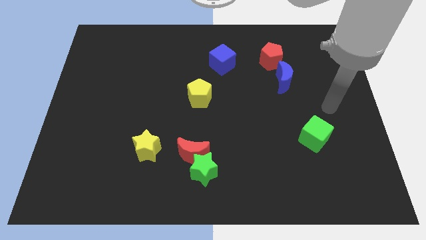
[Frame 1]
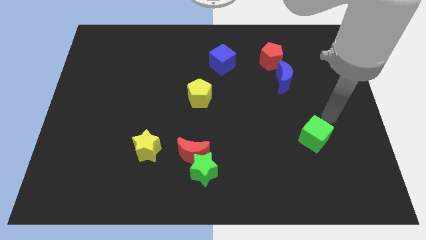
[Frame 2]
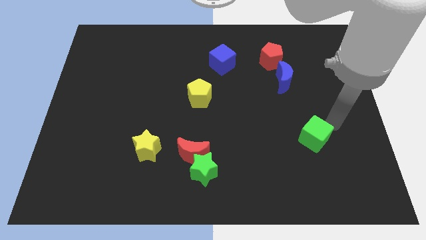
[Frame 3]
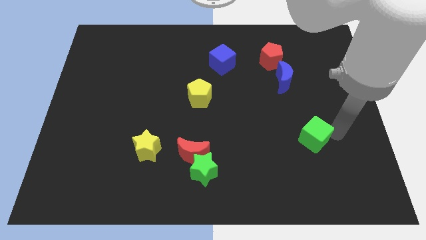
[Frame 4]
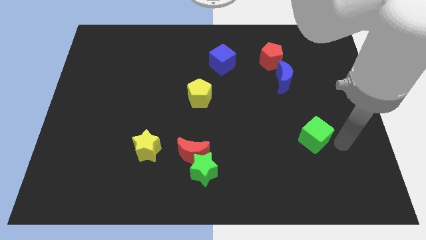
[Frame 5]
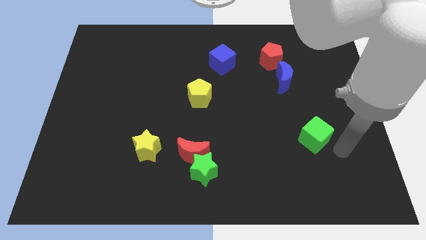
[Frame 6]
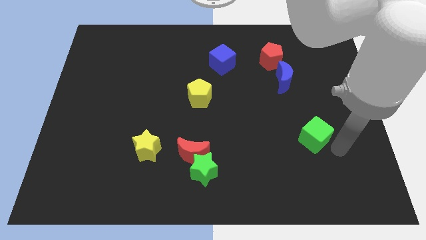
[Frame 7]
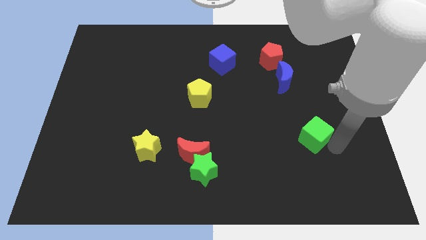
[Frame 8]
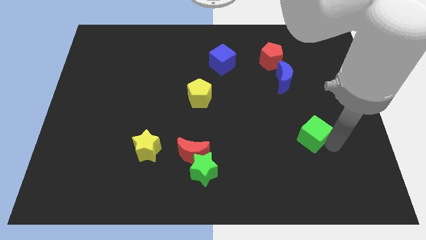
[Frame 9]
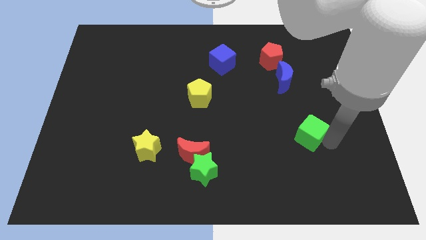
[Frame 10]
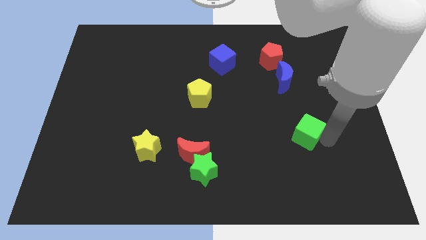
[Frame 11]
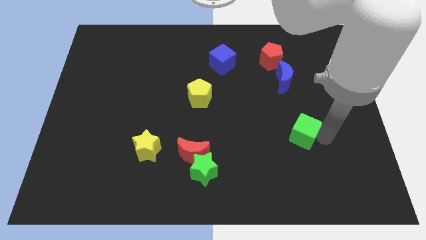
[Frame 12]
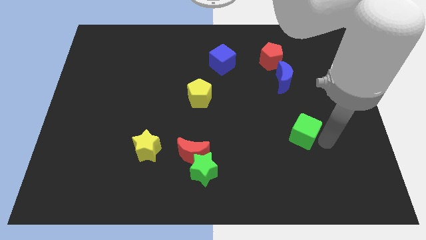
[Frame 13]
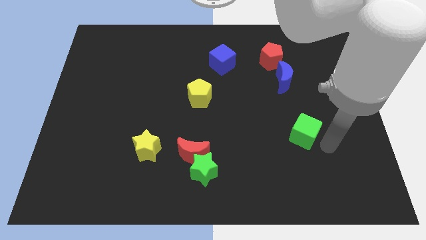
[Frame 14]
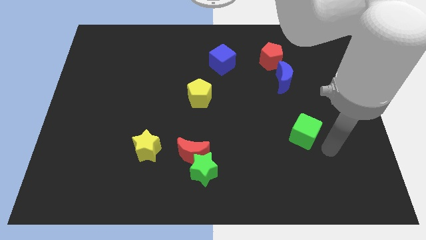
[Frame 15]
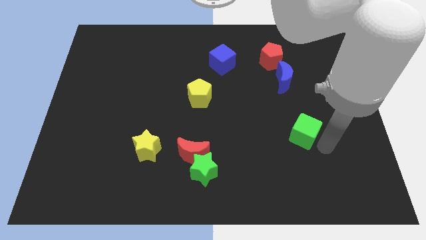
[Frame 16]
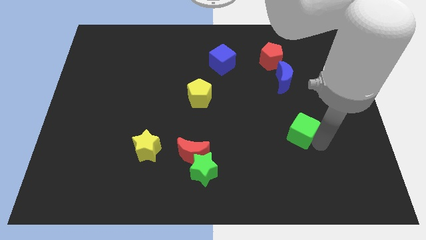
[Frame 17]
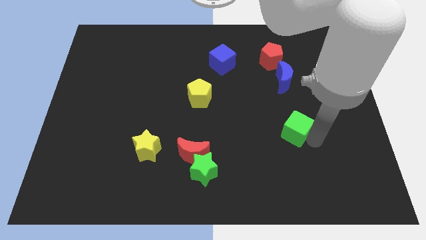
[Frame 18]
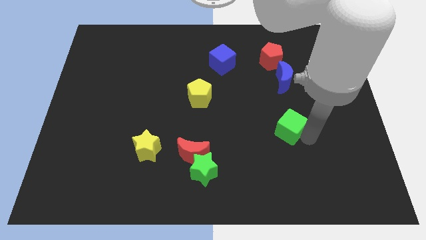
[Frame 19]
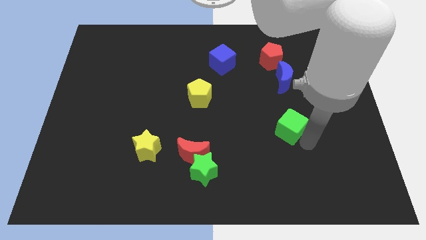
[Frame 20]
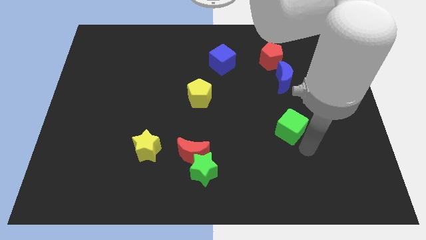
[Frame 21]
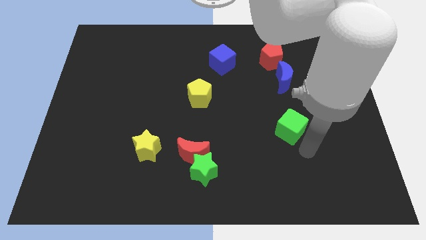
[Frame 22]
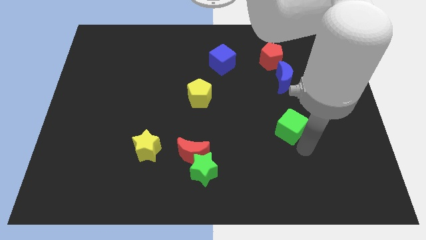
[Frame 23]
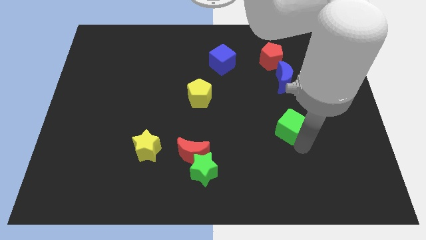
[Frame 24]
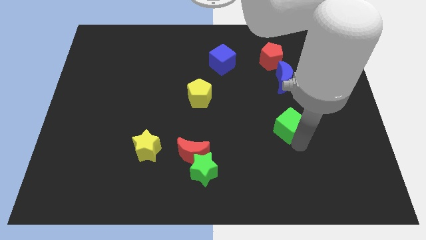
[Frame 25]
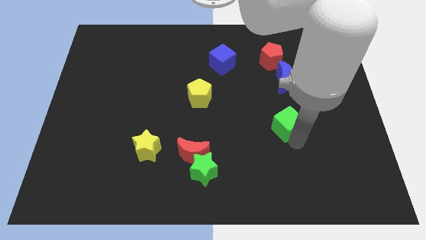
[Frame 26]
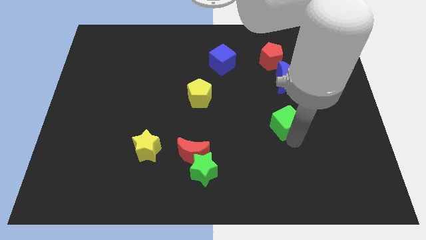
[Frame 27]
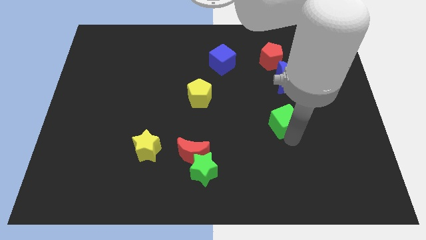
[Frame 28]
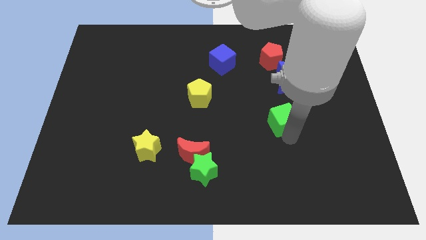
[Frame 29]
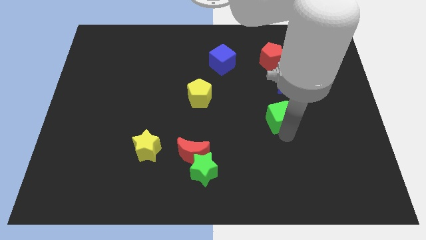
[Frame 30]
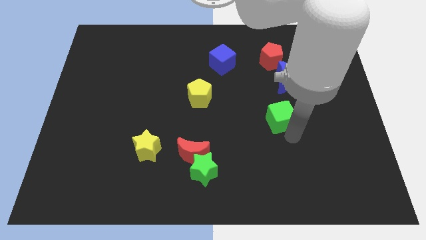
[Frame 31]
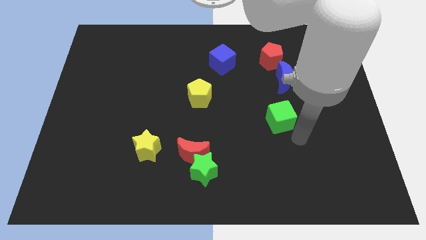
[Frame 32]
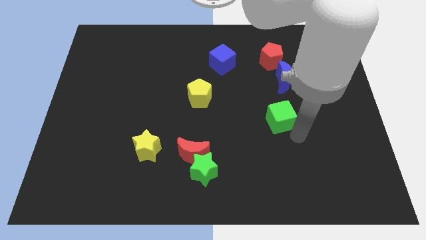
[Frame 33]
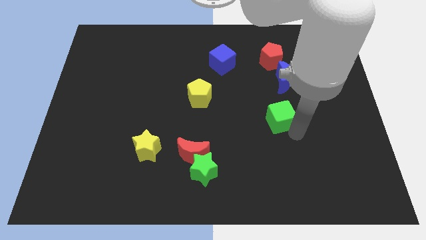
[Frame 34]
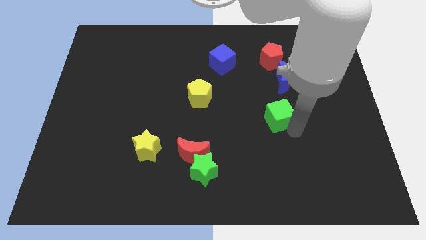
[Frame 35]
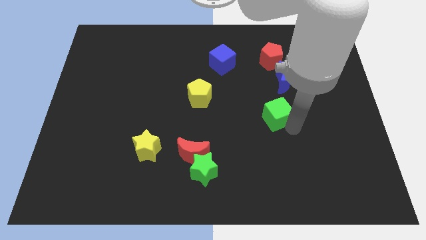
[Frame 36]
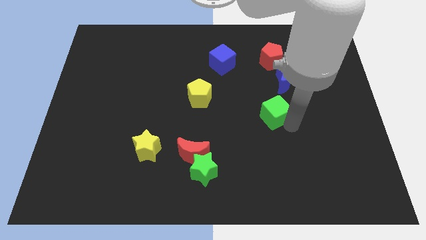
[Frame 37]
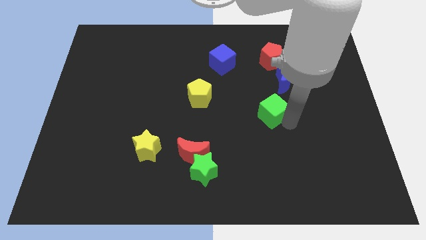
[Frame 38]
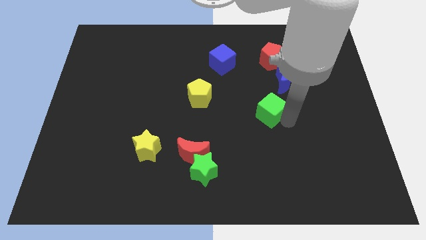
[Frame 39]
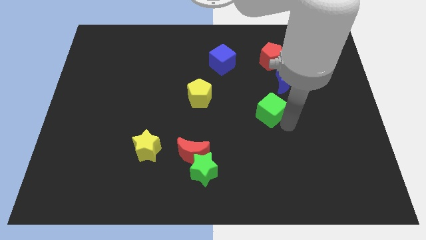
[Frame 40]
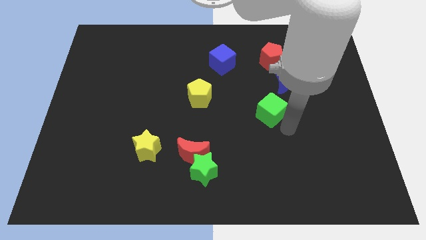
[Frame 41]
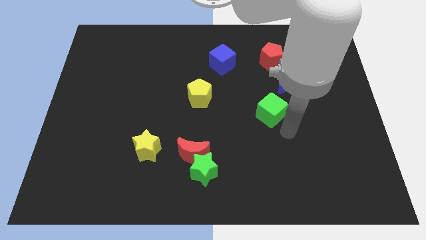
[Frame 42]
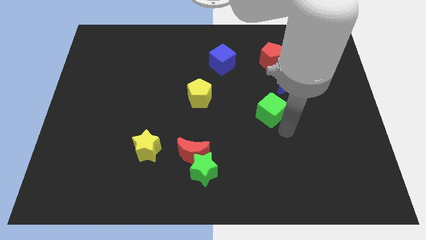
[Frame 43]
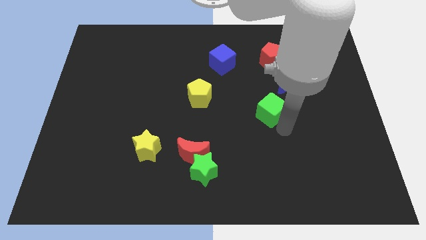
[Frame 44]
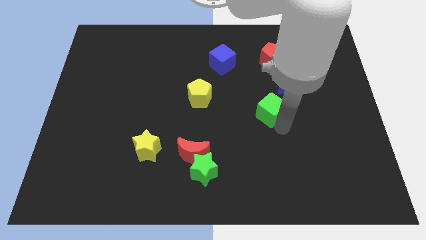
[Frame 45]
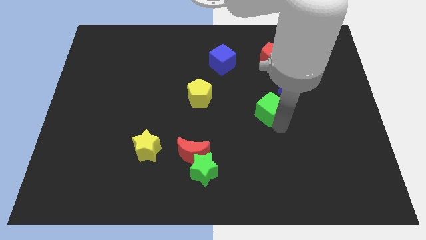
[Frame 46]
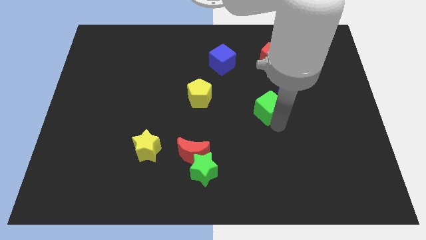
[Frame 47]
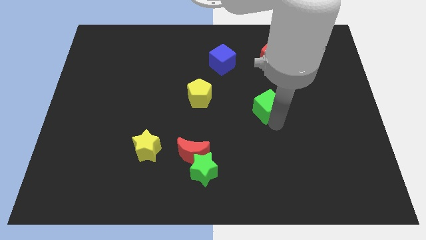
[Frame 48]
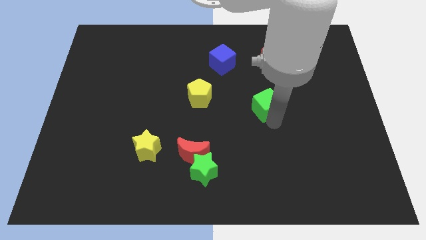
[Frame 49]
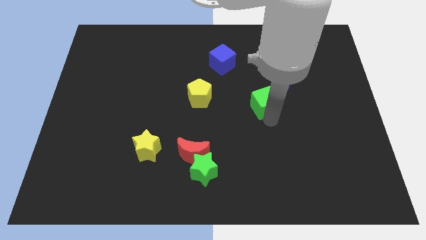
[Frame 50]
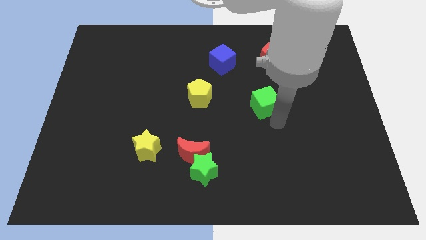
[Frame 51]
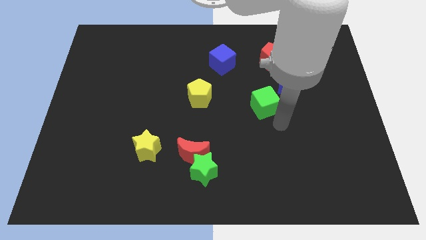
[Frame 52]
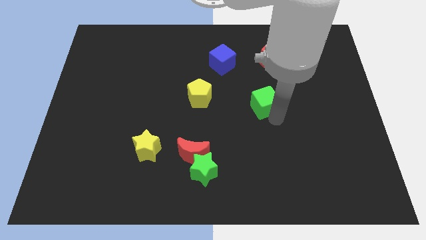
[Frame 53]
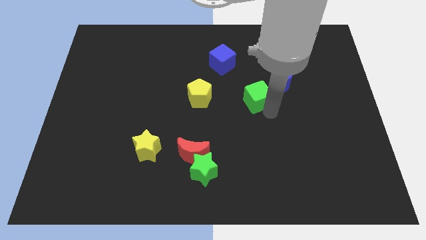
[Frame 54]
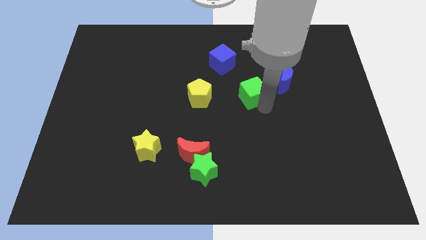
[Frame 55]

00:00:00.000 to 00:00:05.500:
push the green cube to the left side of the blue moon

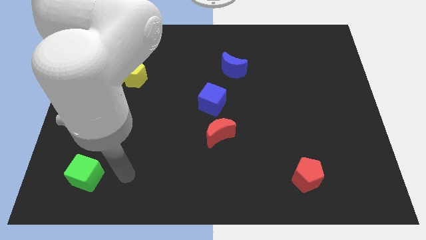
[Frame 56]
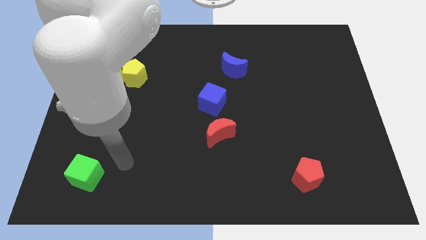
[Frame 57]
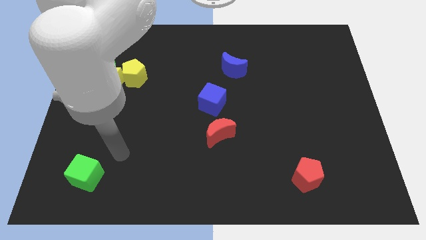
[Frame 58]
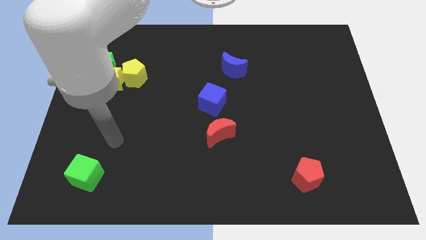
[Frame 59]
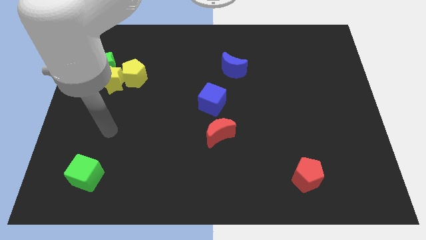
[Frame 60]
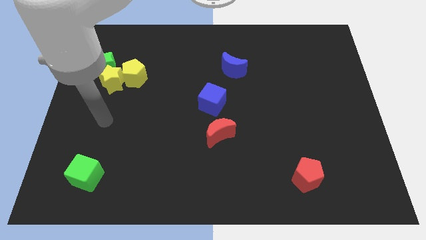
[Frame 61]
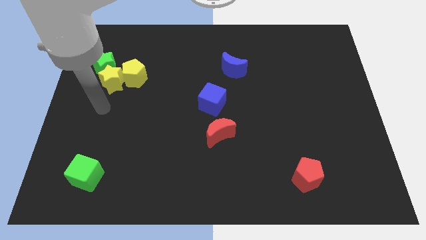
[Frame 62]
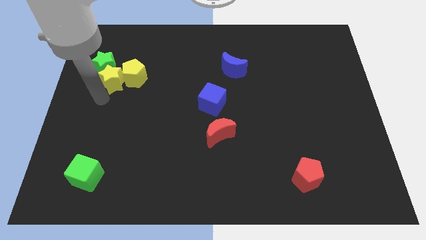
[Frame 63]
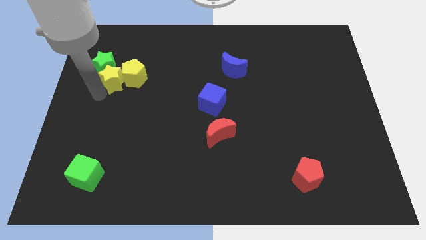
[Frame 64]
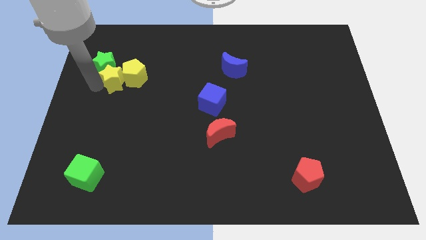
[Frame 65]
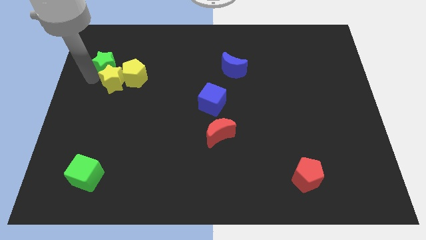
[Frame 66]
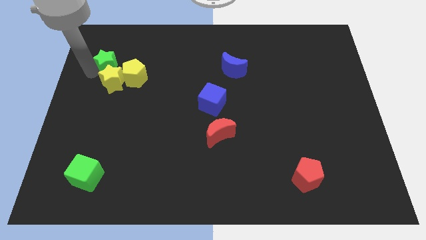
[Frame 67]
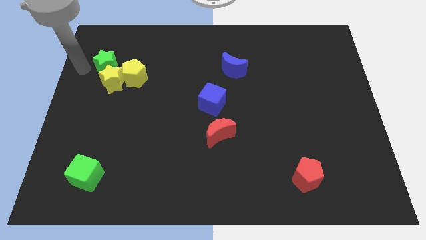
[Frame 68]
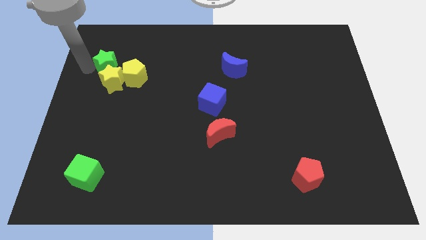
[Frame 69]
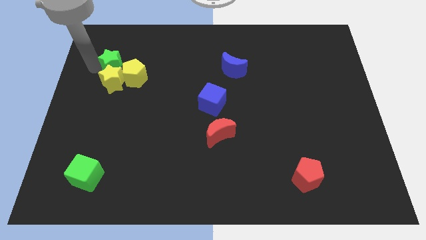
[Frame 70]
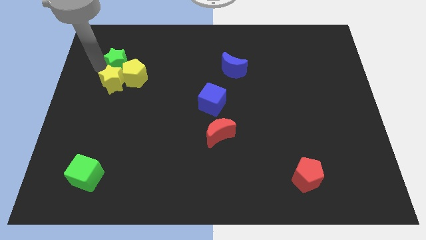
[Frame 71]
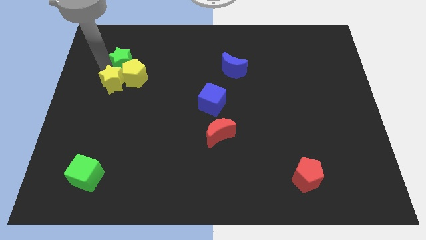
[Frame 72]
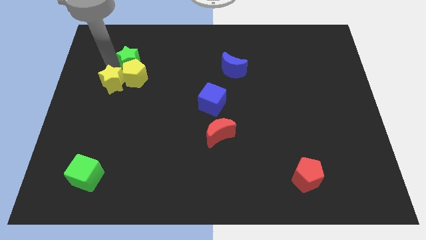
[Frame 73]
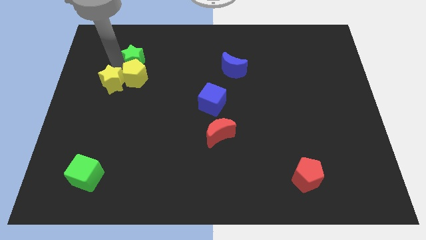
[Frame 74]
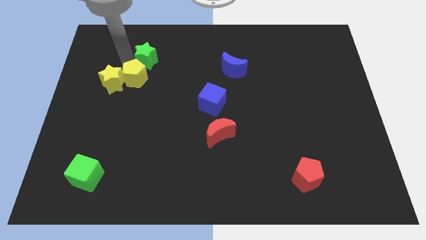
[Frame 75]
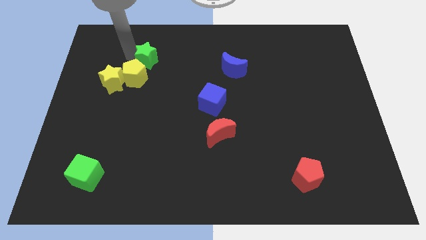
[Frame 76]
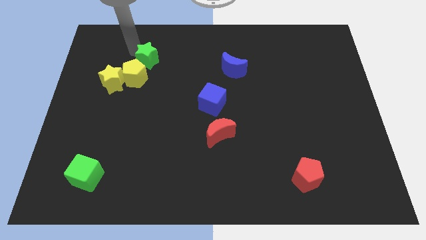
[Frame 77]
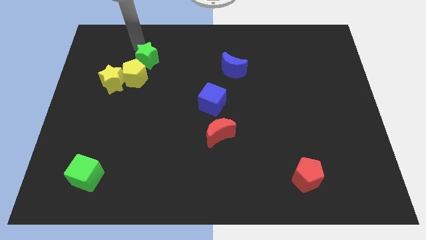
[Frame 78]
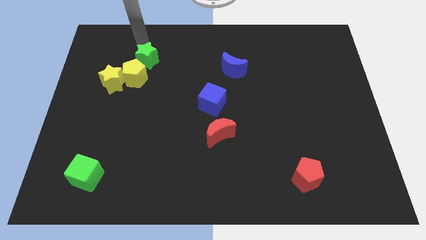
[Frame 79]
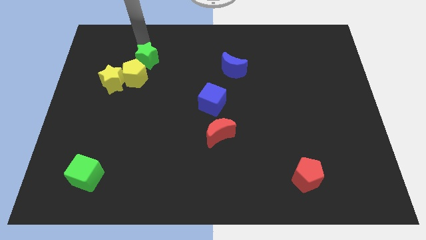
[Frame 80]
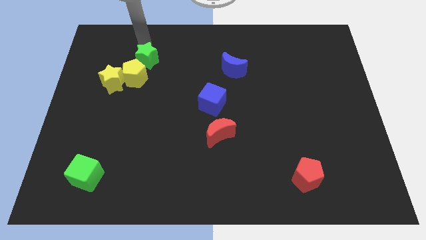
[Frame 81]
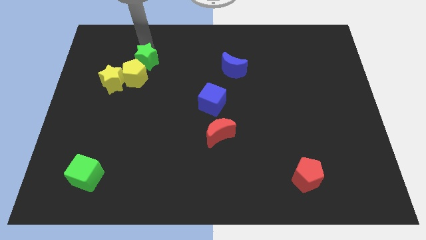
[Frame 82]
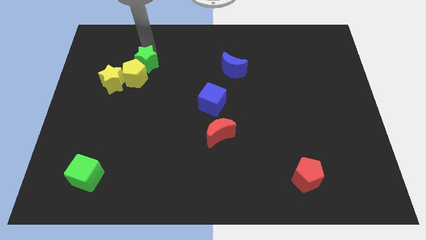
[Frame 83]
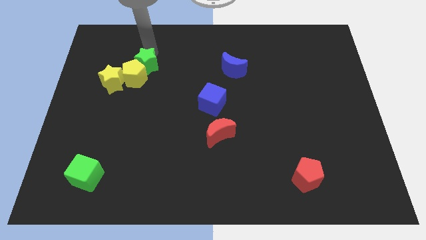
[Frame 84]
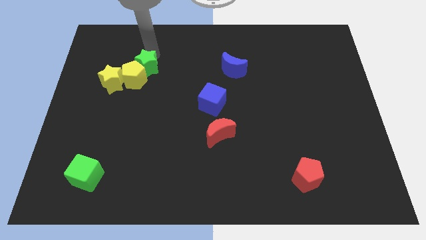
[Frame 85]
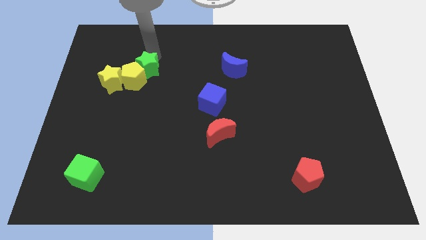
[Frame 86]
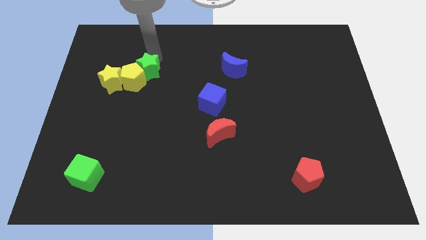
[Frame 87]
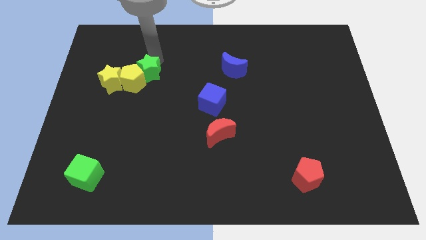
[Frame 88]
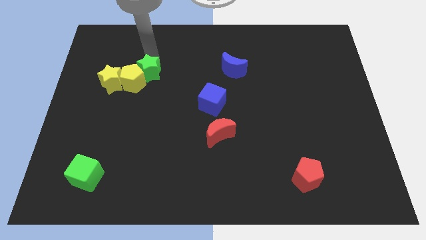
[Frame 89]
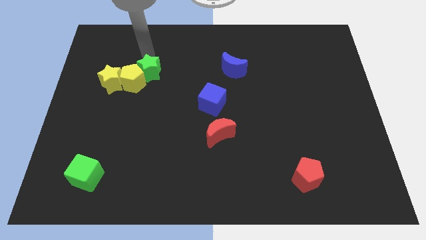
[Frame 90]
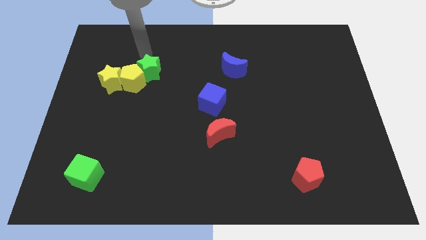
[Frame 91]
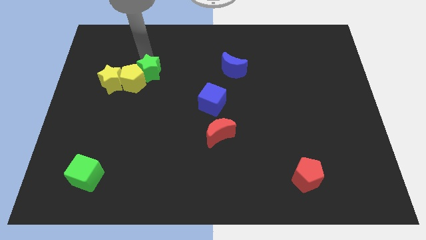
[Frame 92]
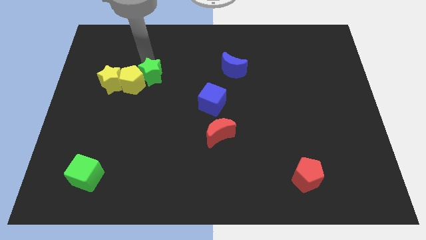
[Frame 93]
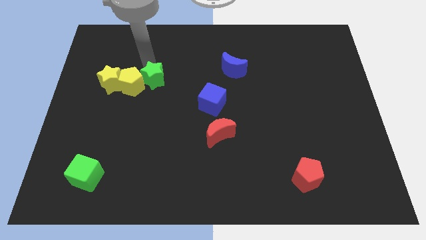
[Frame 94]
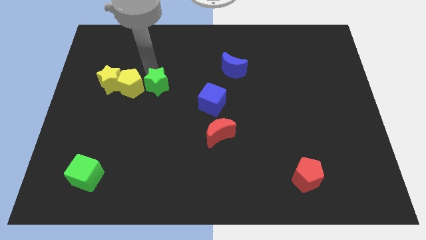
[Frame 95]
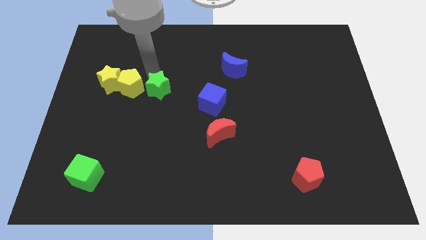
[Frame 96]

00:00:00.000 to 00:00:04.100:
put the green star just left of the blue cube
